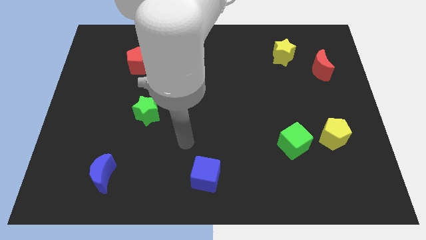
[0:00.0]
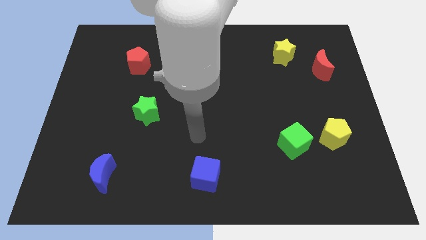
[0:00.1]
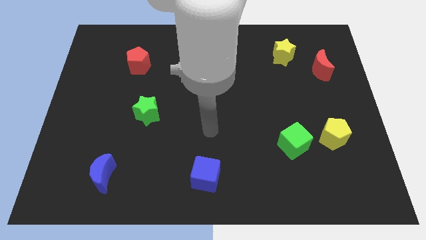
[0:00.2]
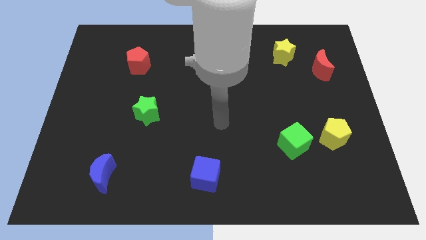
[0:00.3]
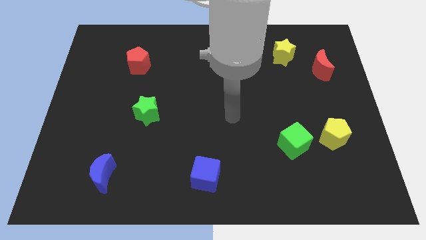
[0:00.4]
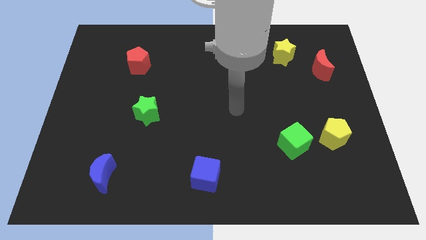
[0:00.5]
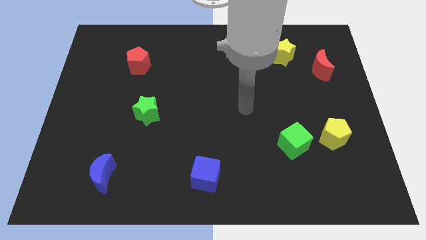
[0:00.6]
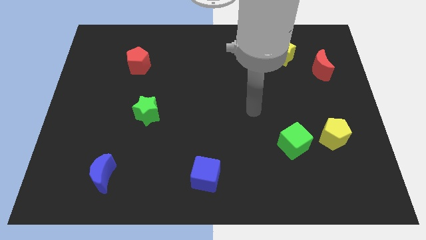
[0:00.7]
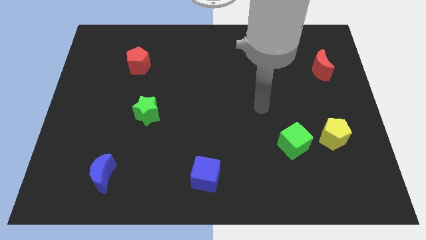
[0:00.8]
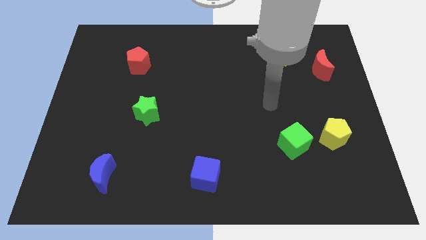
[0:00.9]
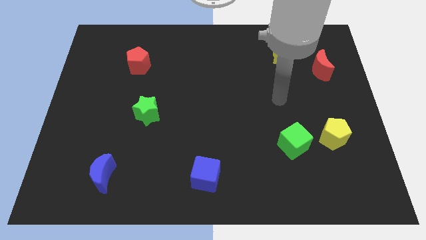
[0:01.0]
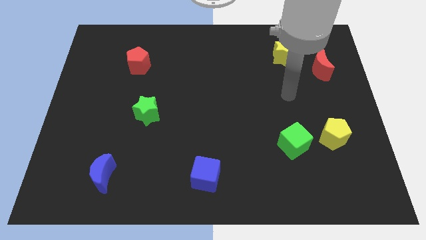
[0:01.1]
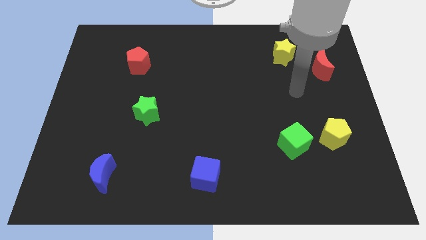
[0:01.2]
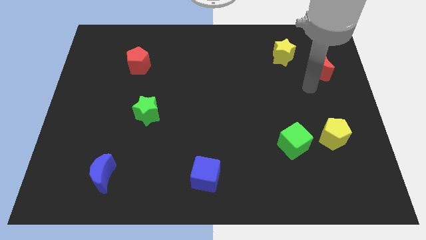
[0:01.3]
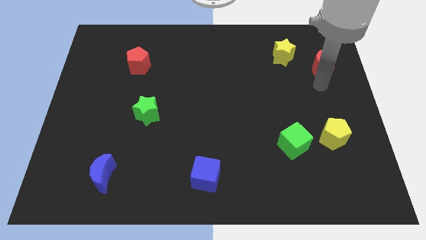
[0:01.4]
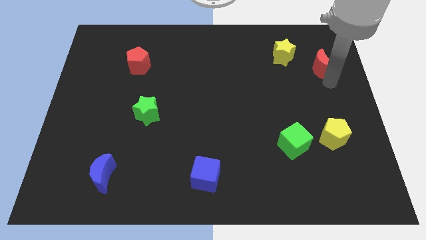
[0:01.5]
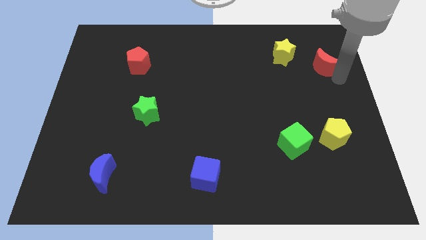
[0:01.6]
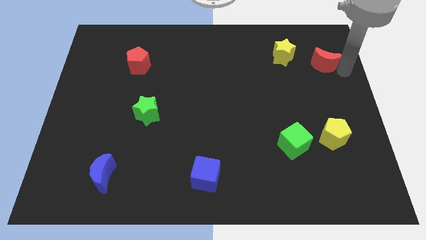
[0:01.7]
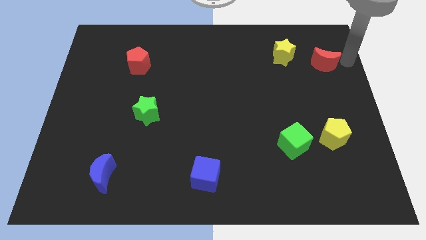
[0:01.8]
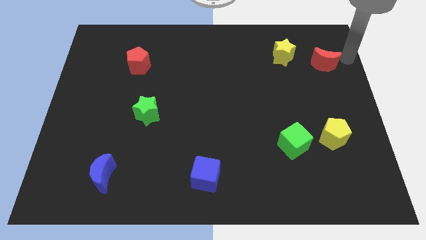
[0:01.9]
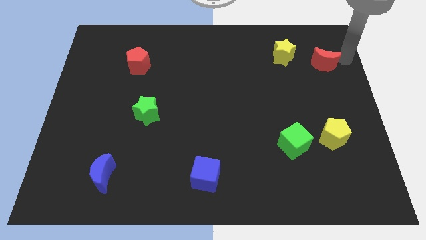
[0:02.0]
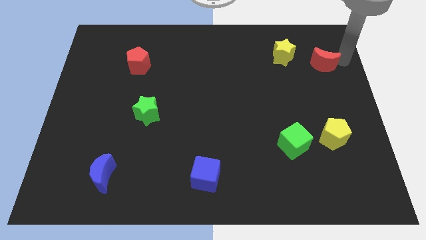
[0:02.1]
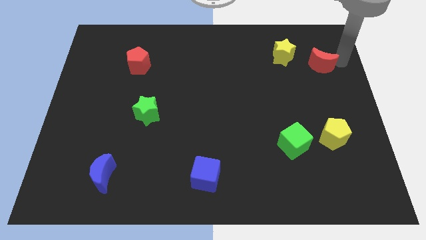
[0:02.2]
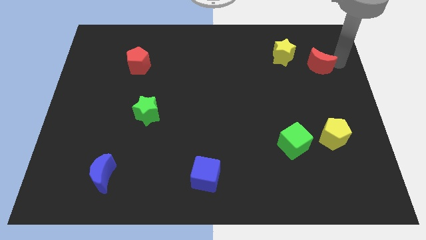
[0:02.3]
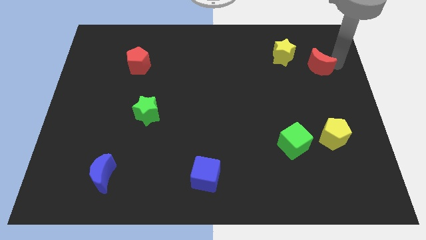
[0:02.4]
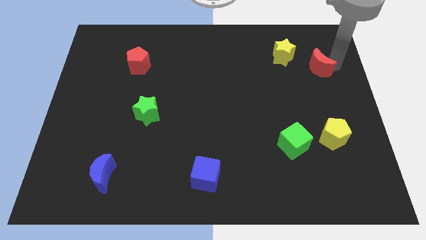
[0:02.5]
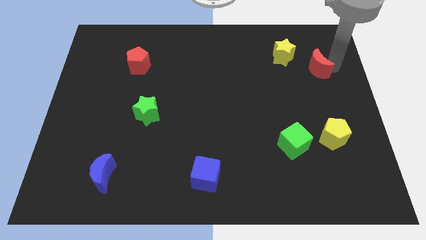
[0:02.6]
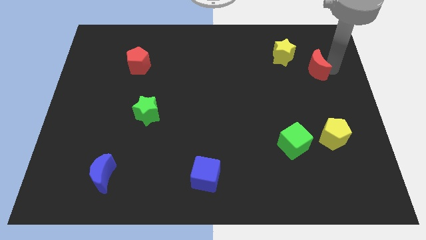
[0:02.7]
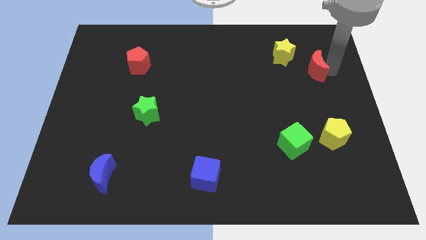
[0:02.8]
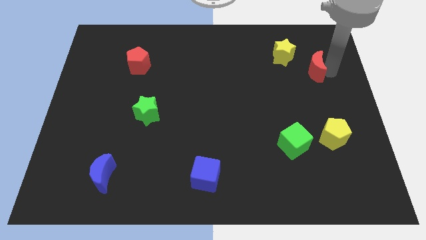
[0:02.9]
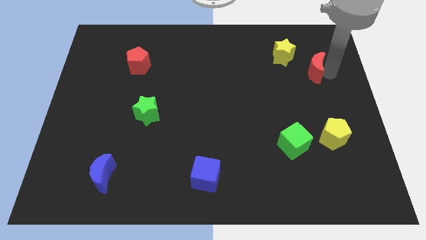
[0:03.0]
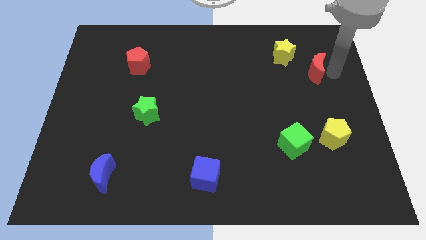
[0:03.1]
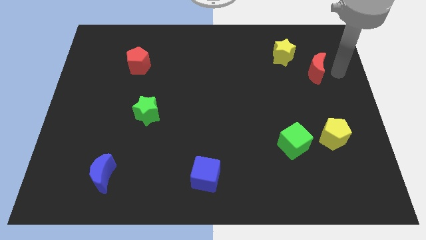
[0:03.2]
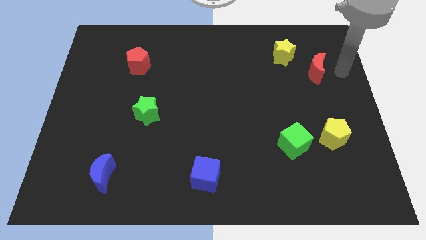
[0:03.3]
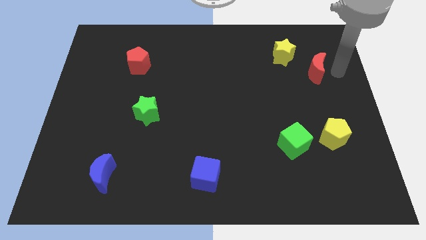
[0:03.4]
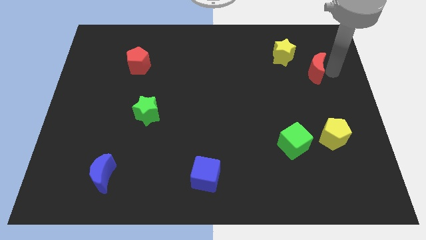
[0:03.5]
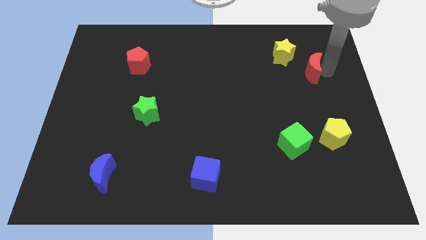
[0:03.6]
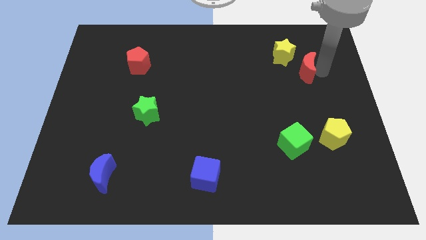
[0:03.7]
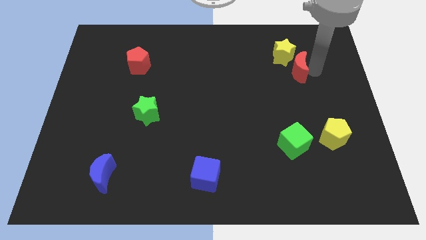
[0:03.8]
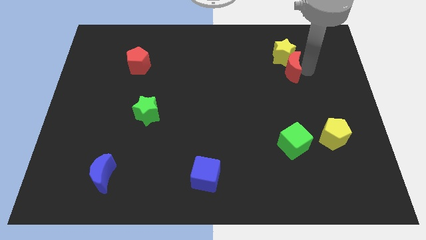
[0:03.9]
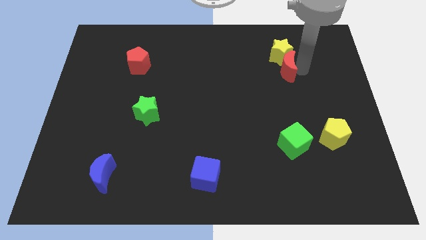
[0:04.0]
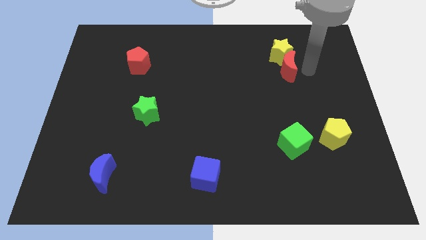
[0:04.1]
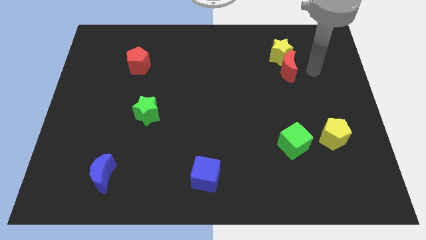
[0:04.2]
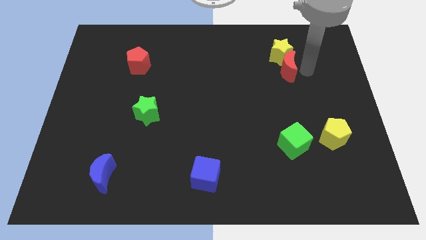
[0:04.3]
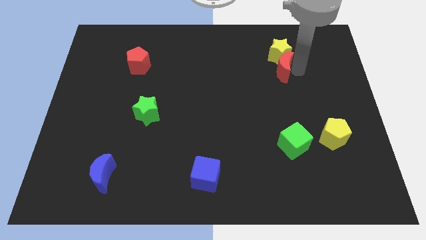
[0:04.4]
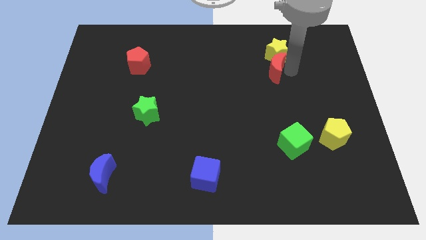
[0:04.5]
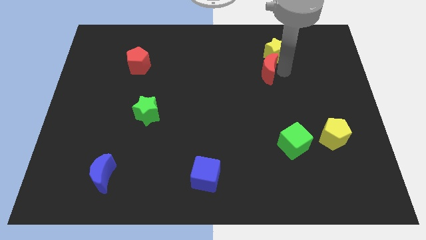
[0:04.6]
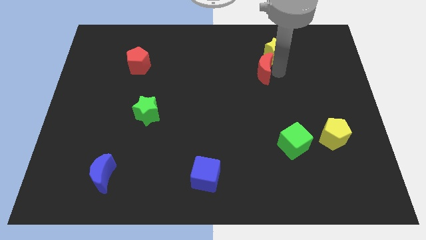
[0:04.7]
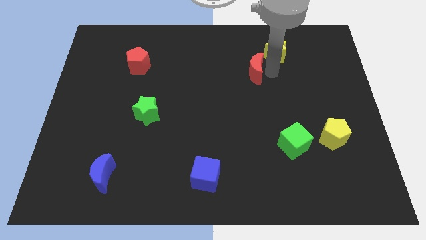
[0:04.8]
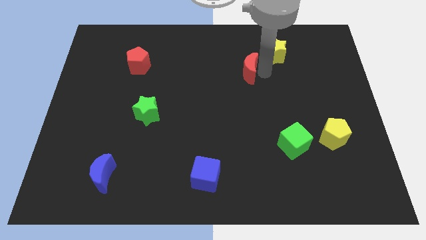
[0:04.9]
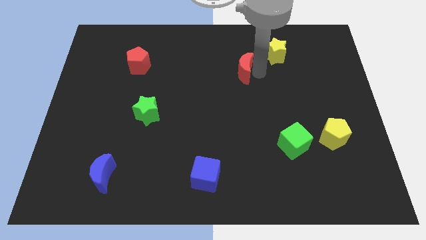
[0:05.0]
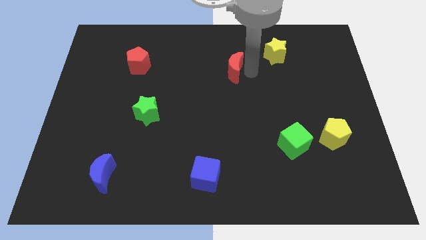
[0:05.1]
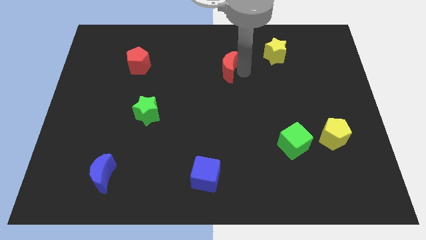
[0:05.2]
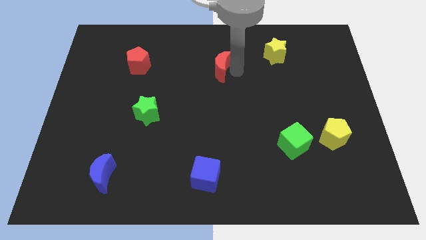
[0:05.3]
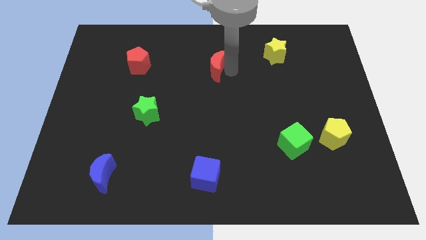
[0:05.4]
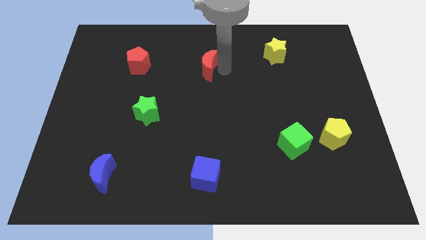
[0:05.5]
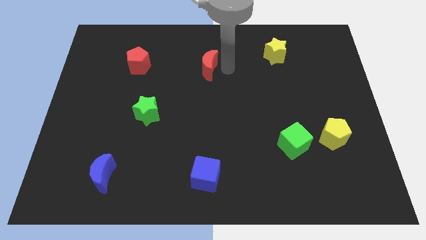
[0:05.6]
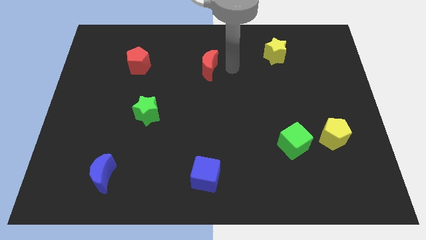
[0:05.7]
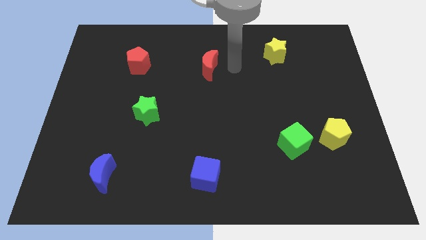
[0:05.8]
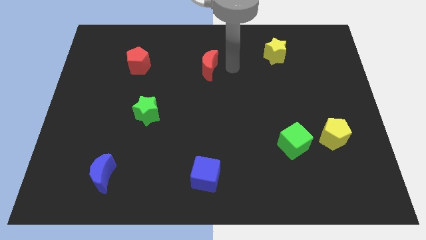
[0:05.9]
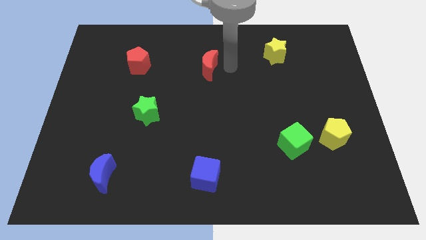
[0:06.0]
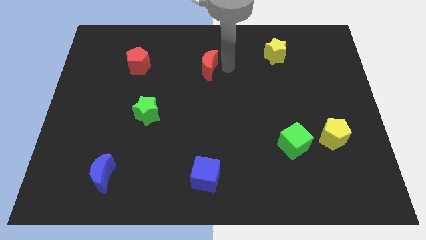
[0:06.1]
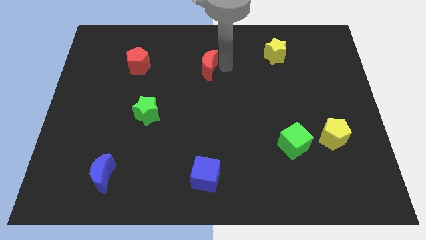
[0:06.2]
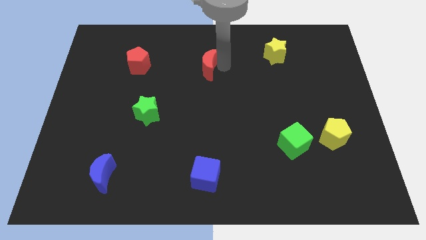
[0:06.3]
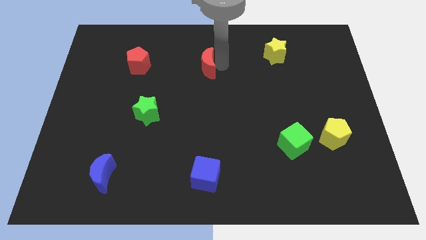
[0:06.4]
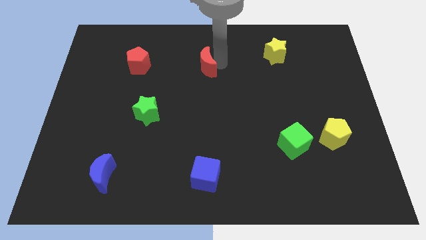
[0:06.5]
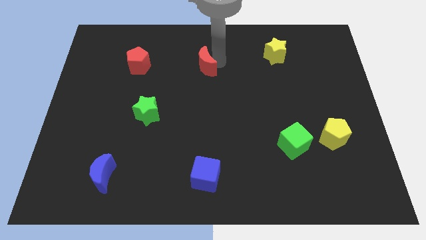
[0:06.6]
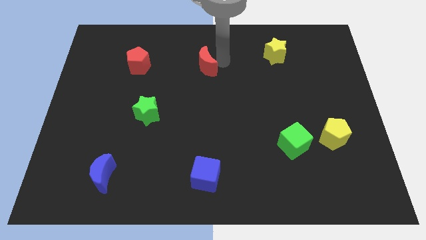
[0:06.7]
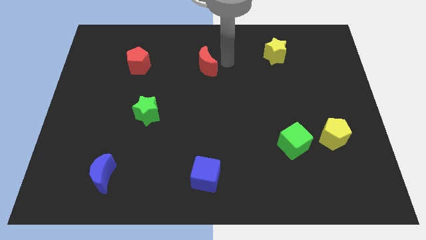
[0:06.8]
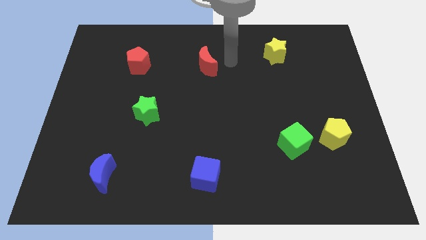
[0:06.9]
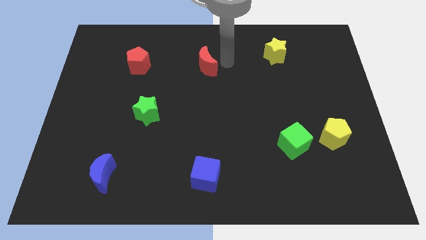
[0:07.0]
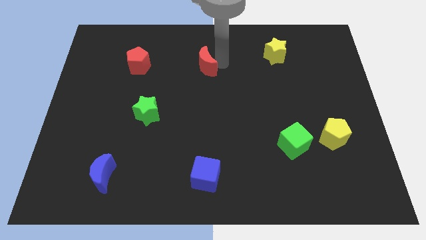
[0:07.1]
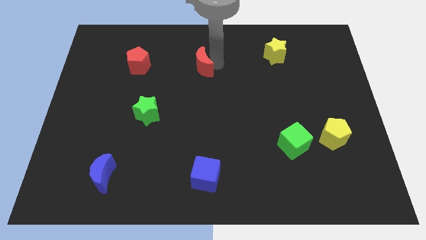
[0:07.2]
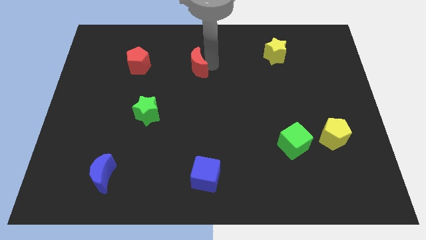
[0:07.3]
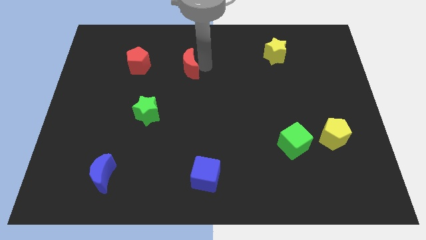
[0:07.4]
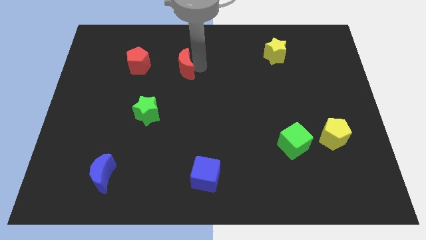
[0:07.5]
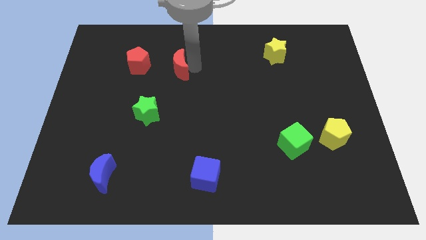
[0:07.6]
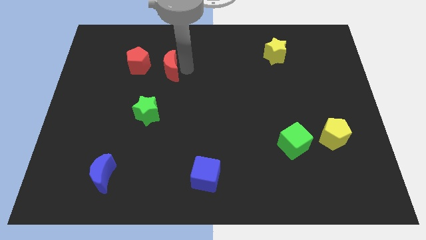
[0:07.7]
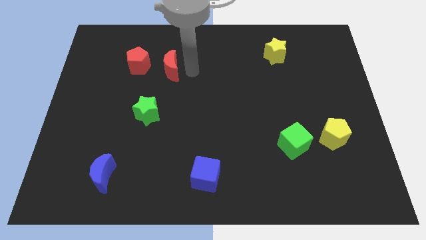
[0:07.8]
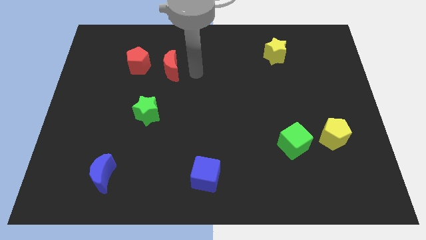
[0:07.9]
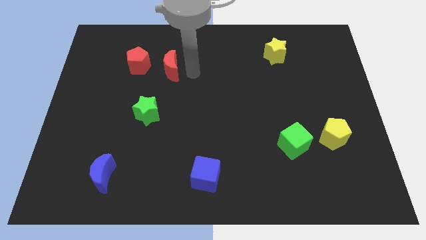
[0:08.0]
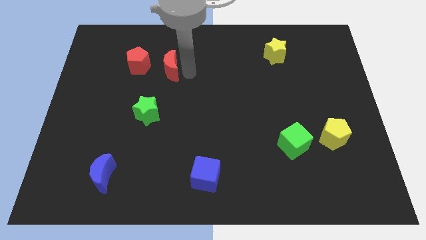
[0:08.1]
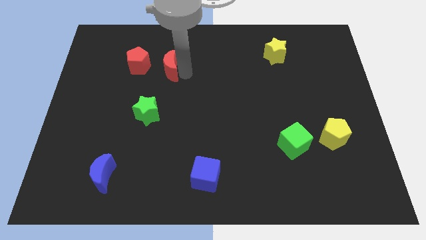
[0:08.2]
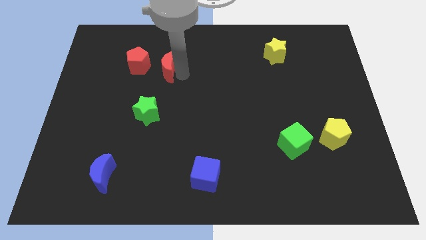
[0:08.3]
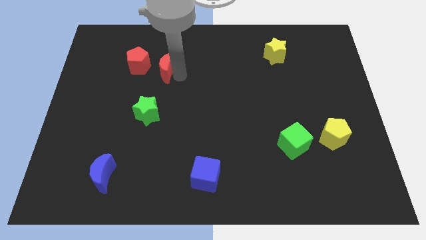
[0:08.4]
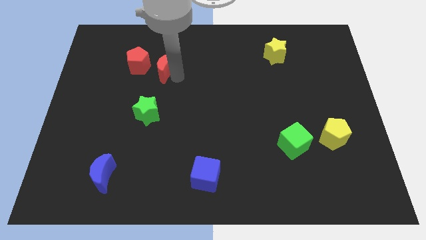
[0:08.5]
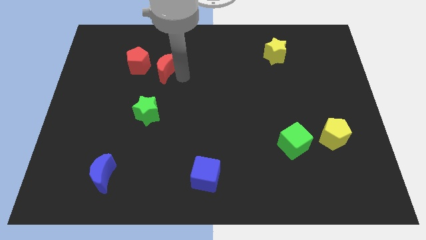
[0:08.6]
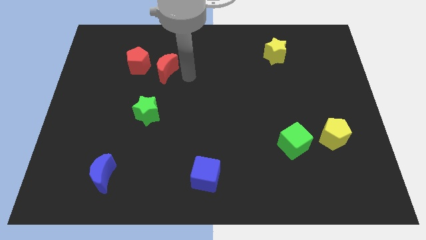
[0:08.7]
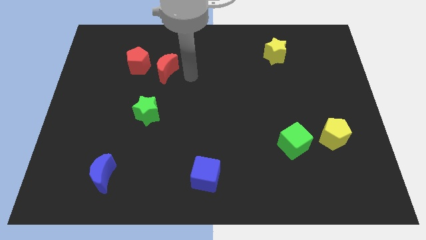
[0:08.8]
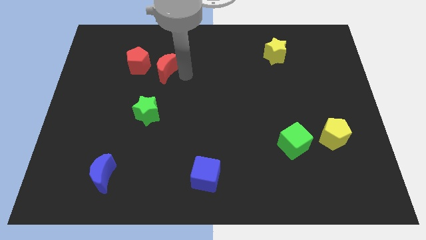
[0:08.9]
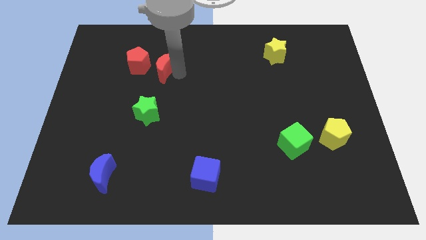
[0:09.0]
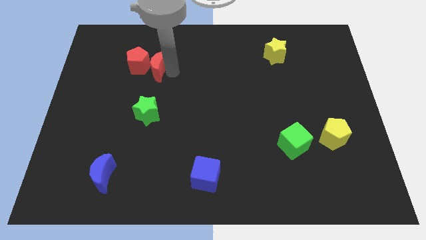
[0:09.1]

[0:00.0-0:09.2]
push the red moon to the red pentagon
